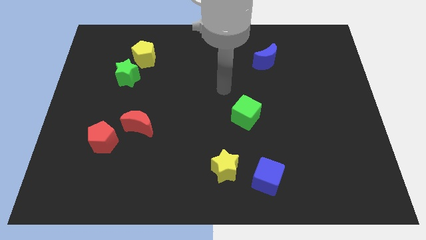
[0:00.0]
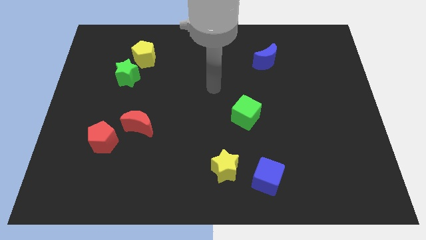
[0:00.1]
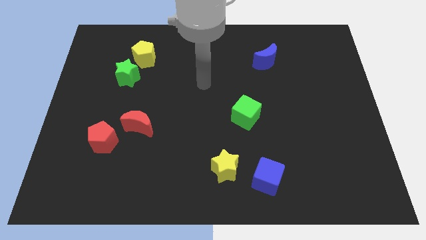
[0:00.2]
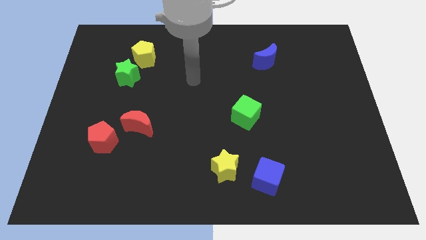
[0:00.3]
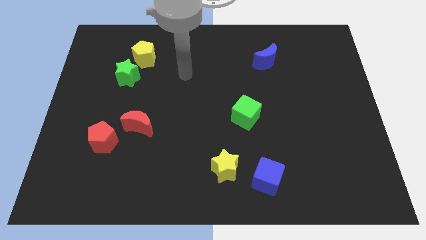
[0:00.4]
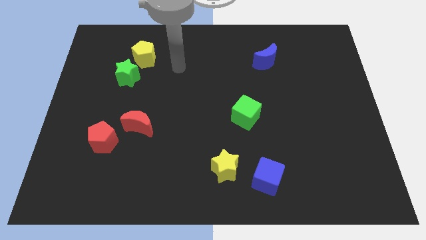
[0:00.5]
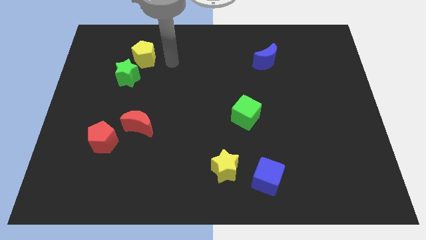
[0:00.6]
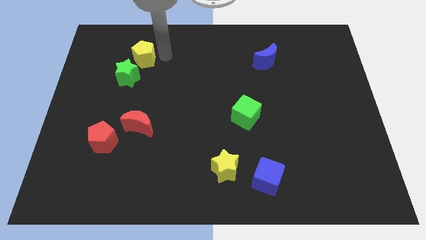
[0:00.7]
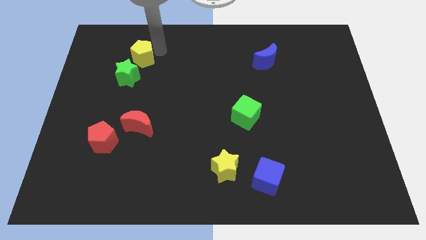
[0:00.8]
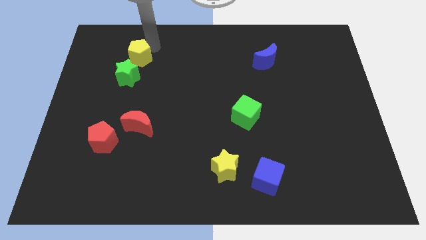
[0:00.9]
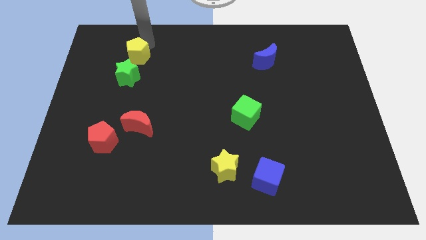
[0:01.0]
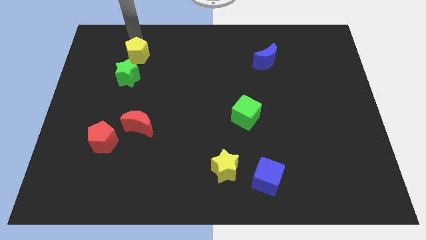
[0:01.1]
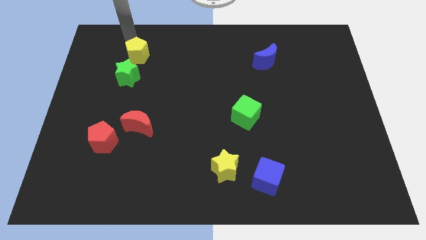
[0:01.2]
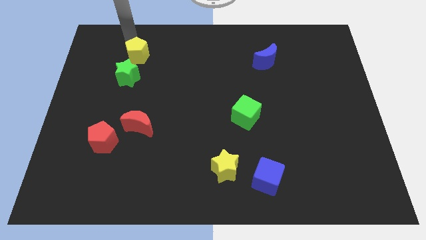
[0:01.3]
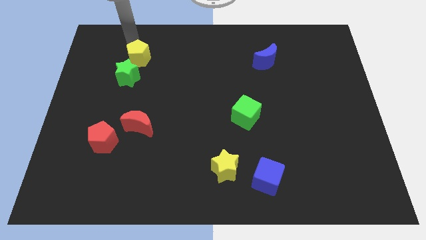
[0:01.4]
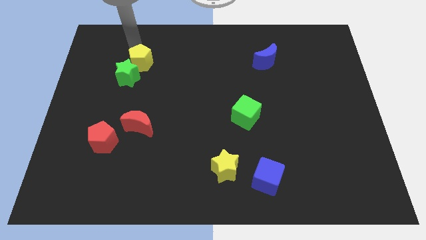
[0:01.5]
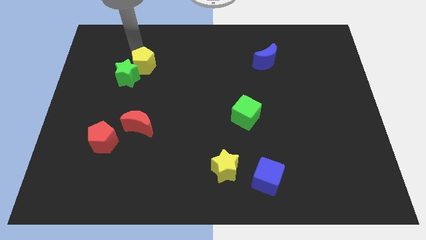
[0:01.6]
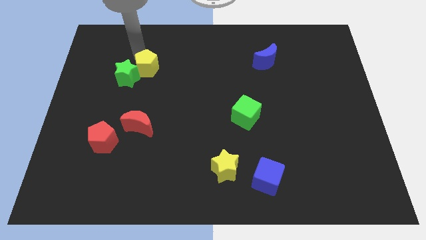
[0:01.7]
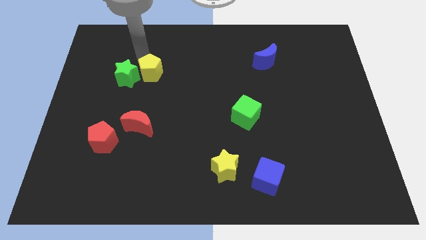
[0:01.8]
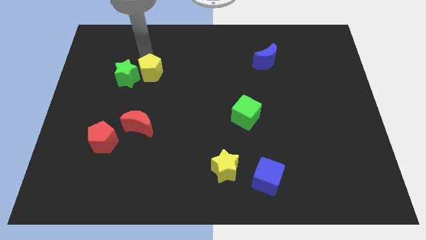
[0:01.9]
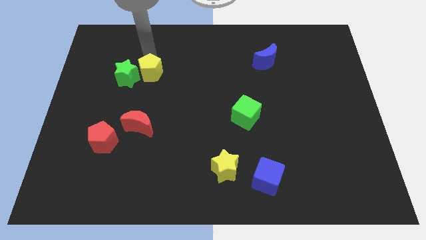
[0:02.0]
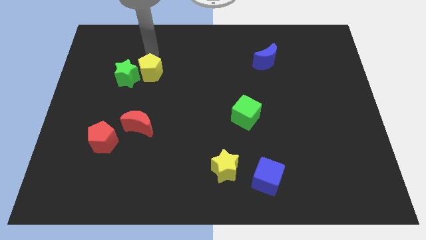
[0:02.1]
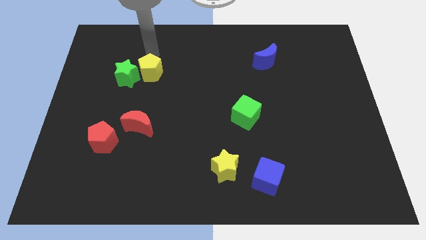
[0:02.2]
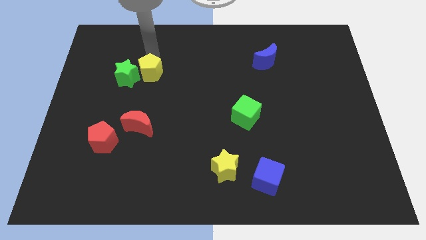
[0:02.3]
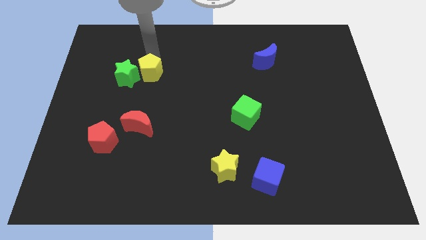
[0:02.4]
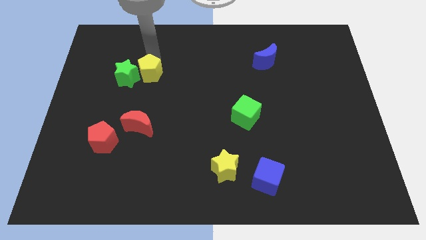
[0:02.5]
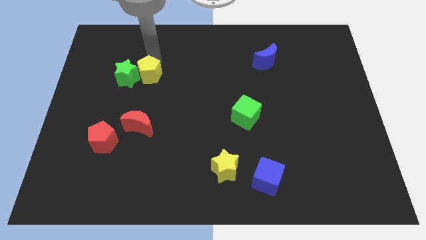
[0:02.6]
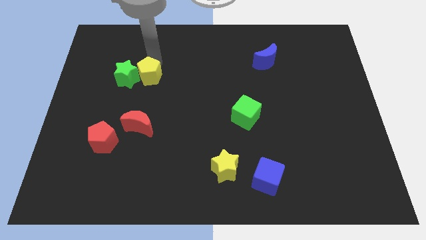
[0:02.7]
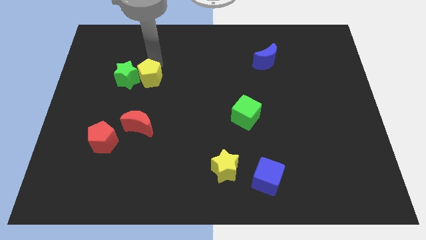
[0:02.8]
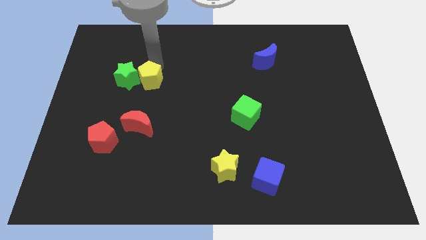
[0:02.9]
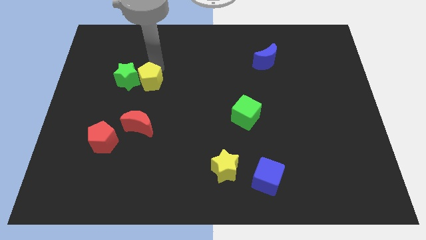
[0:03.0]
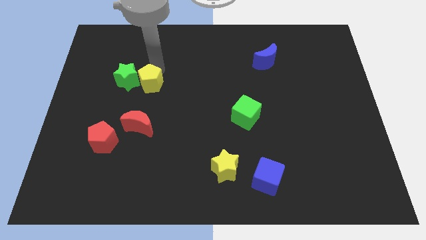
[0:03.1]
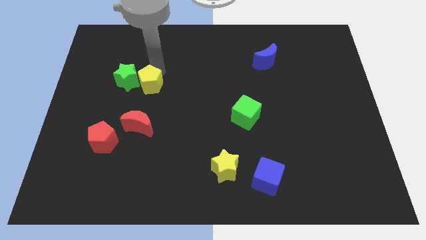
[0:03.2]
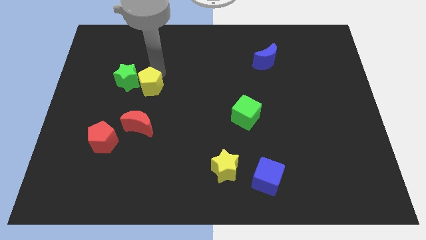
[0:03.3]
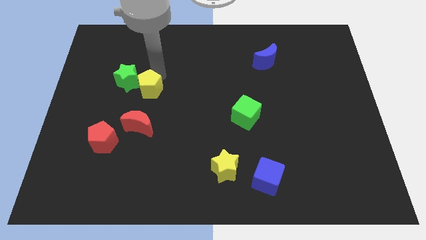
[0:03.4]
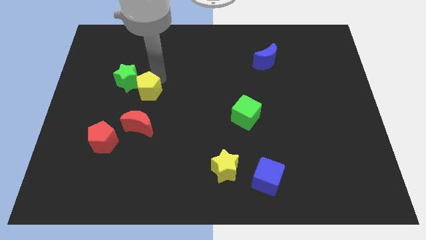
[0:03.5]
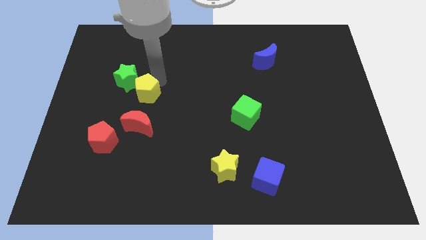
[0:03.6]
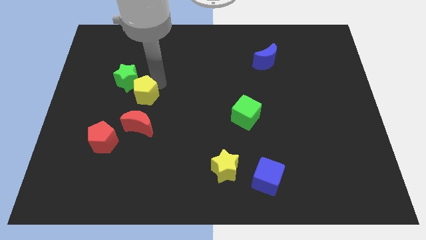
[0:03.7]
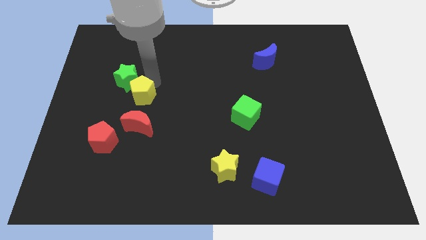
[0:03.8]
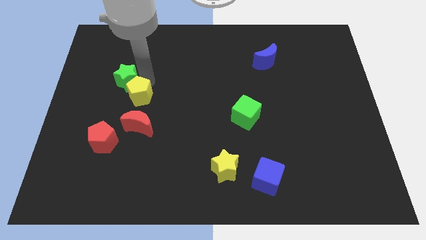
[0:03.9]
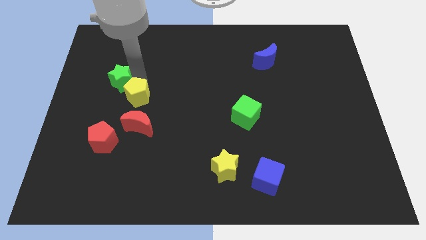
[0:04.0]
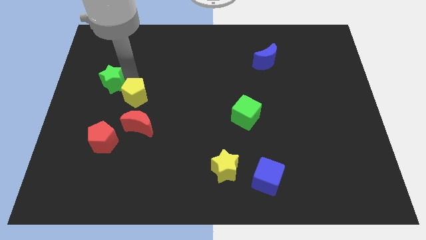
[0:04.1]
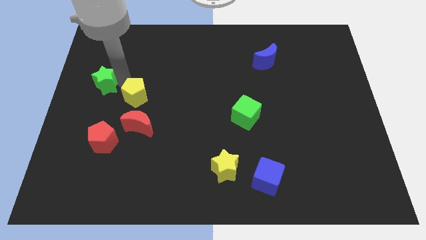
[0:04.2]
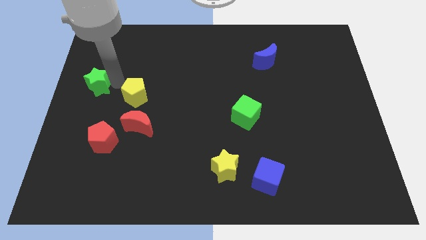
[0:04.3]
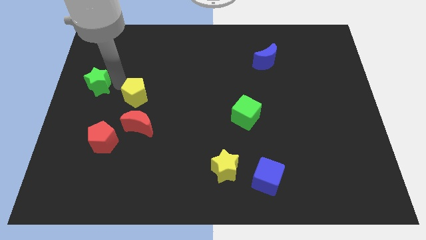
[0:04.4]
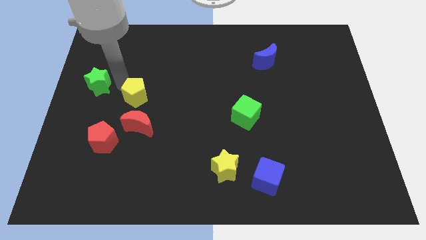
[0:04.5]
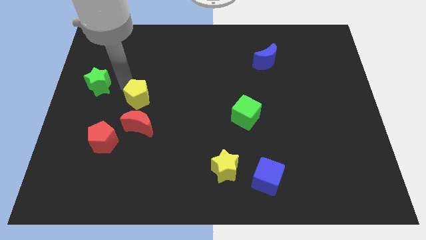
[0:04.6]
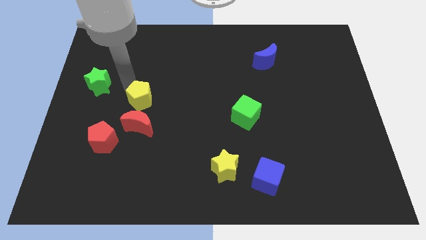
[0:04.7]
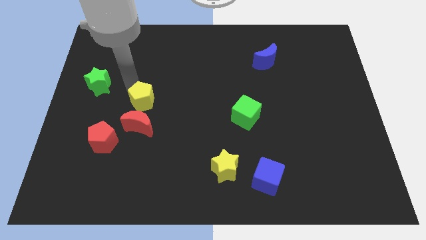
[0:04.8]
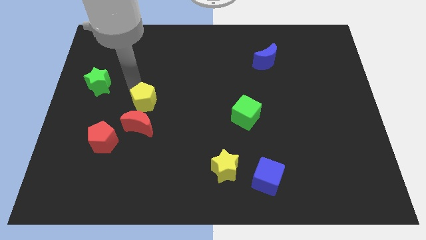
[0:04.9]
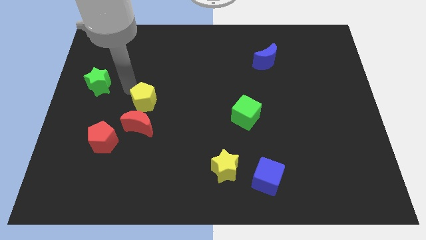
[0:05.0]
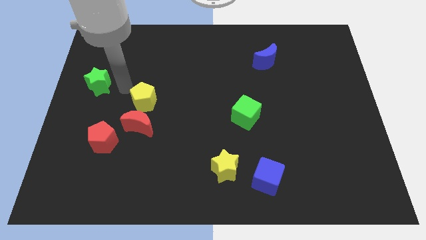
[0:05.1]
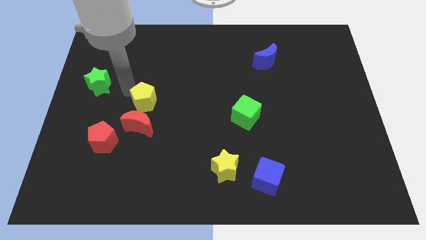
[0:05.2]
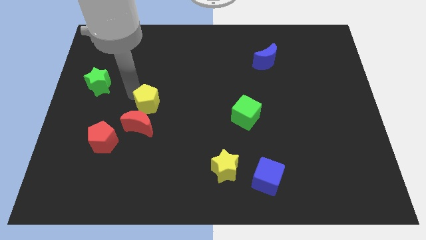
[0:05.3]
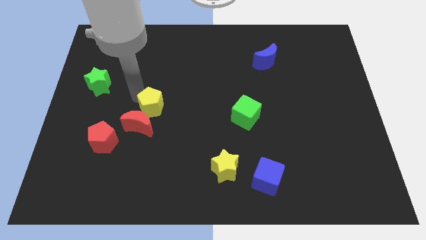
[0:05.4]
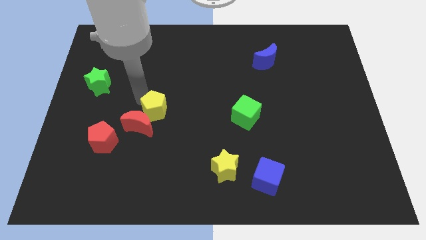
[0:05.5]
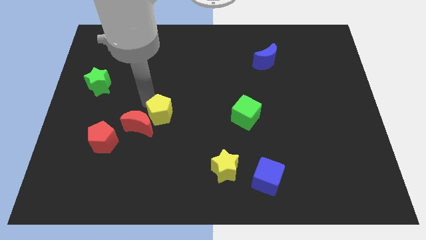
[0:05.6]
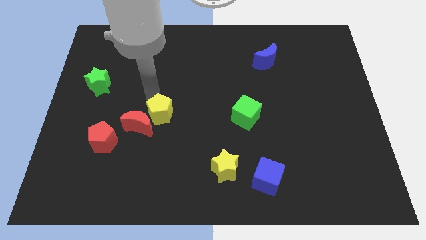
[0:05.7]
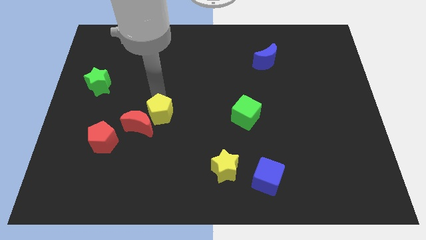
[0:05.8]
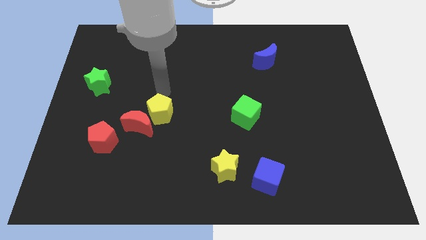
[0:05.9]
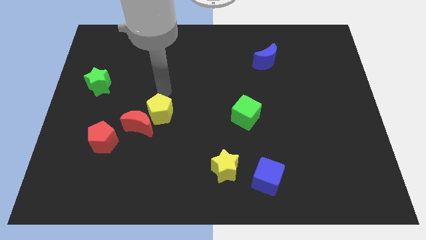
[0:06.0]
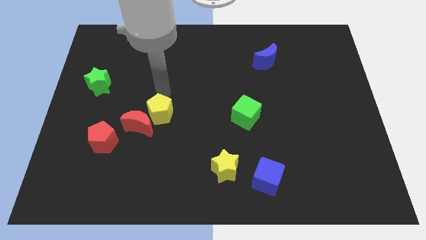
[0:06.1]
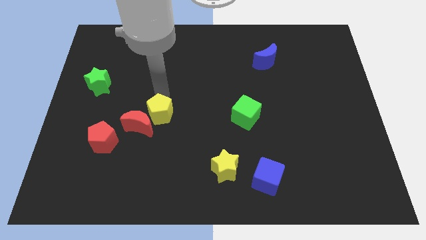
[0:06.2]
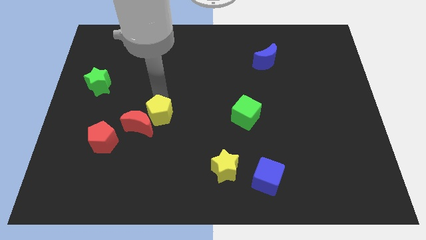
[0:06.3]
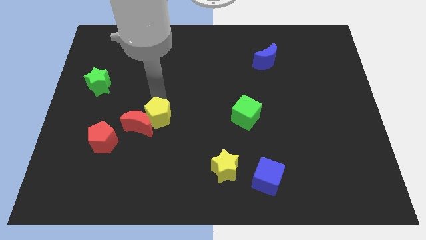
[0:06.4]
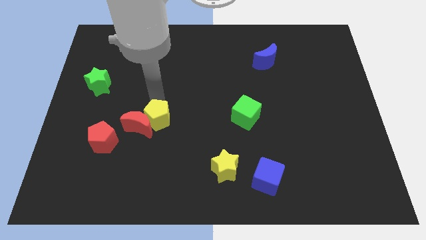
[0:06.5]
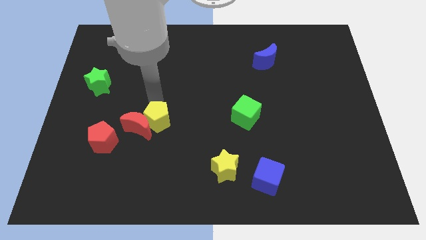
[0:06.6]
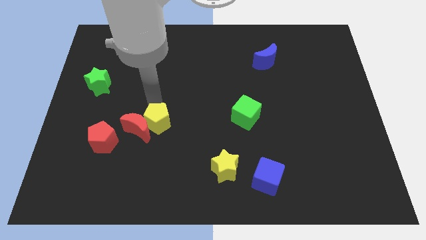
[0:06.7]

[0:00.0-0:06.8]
slide the yellow pentagon downwards

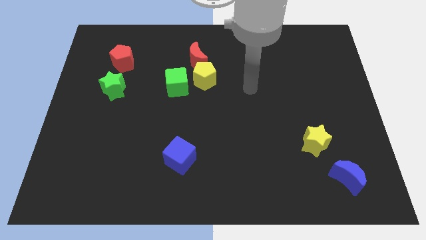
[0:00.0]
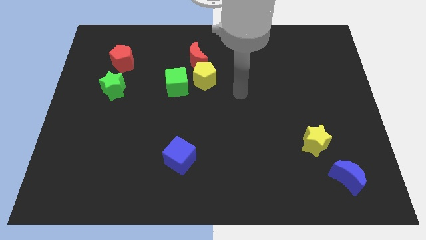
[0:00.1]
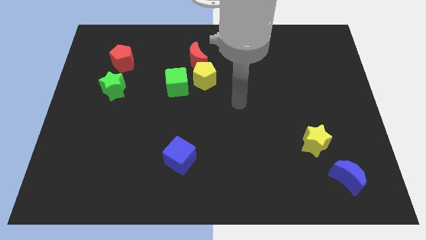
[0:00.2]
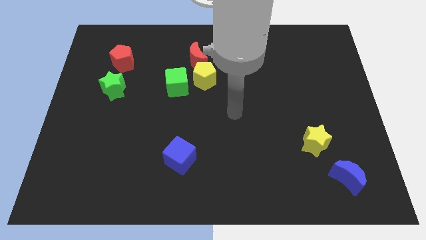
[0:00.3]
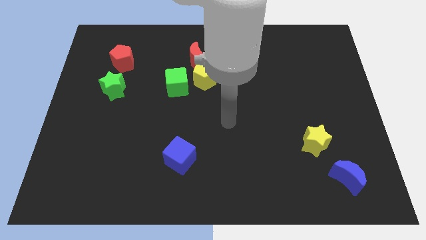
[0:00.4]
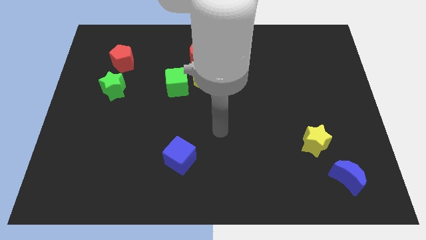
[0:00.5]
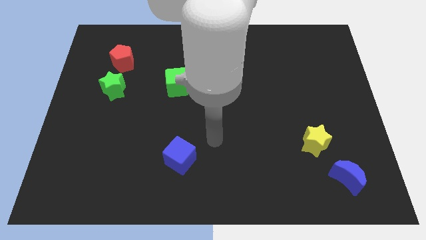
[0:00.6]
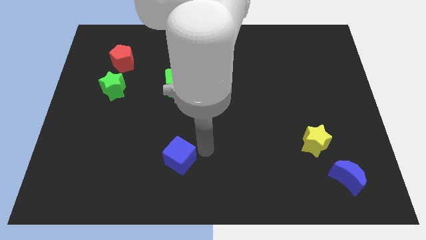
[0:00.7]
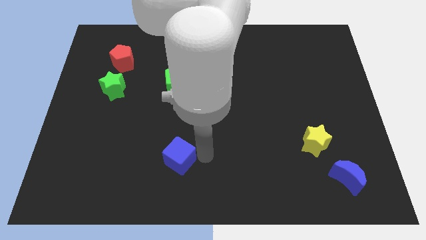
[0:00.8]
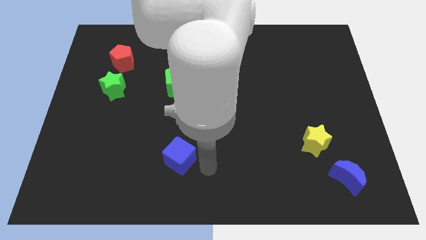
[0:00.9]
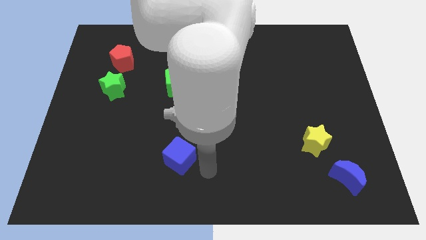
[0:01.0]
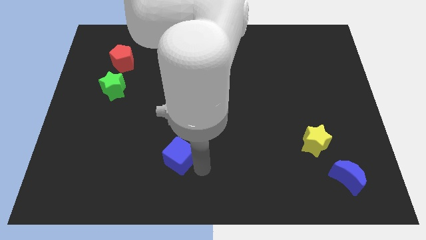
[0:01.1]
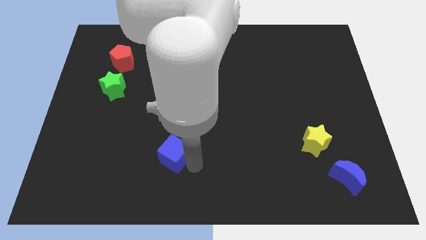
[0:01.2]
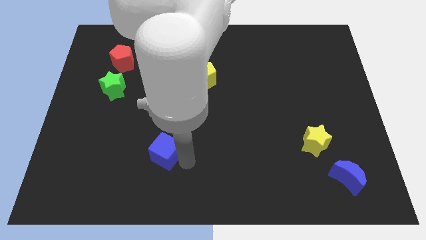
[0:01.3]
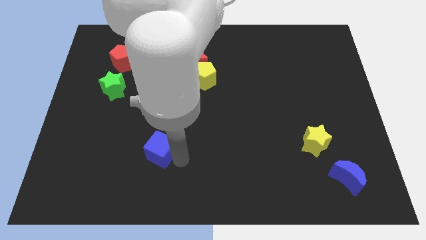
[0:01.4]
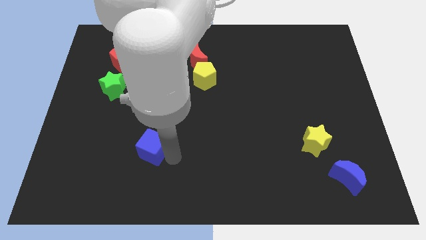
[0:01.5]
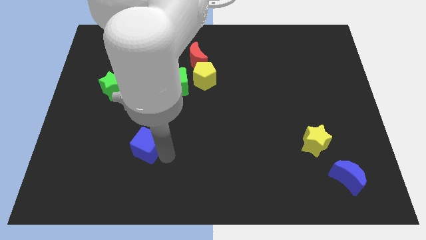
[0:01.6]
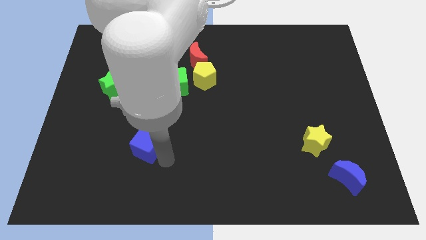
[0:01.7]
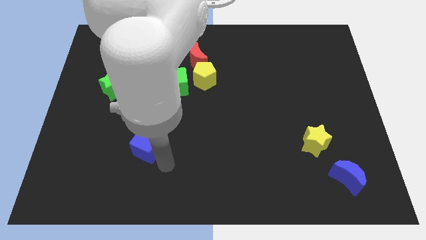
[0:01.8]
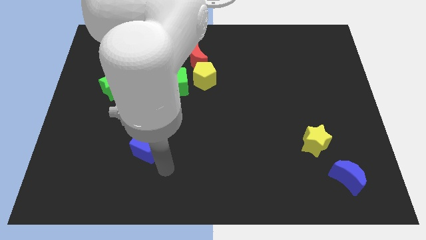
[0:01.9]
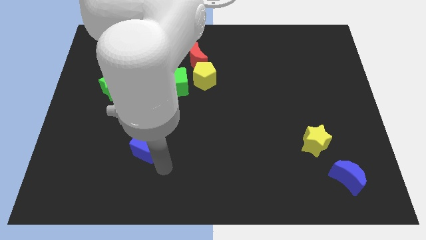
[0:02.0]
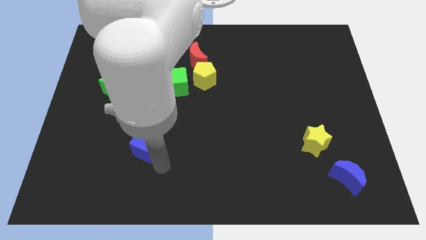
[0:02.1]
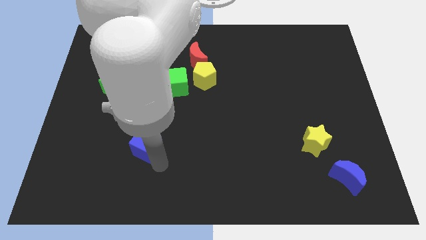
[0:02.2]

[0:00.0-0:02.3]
push the blue cube up and then left a little bit
